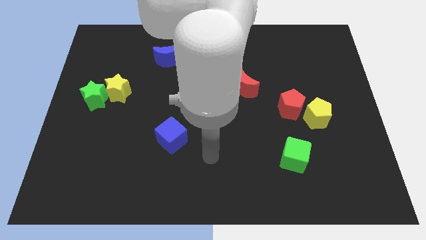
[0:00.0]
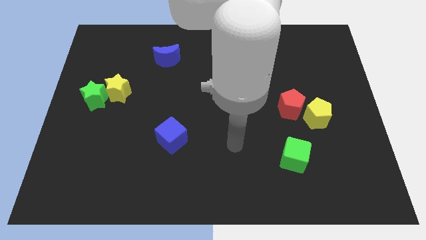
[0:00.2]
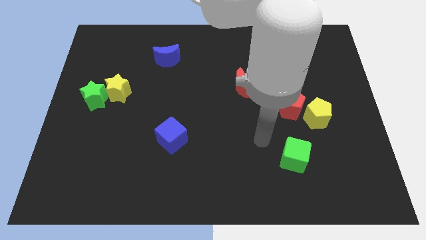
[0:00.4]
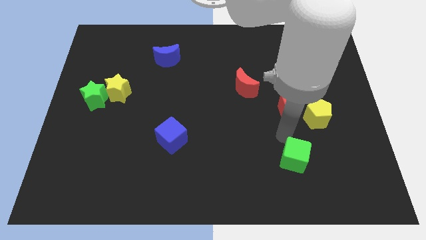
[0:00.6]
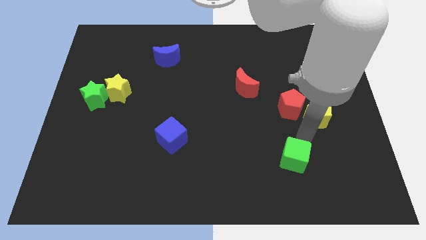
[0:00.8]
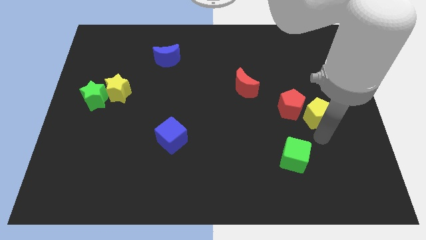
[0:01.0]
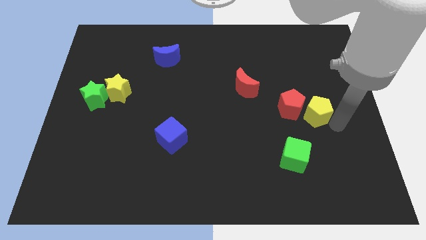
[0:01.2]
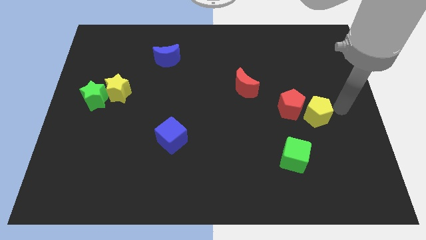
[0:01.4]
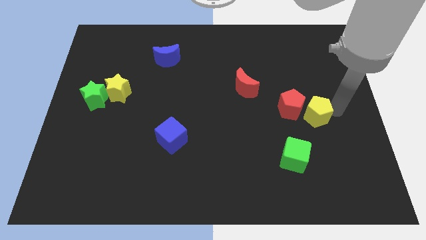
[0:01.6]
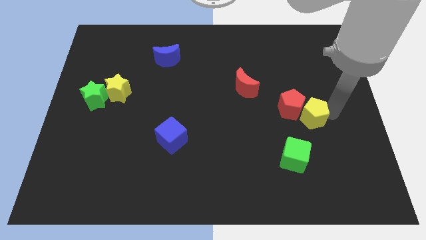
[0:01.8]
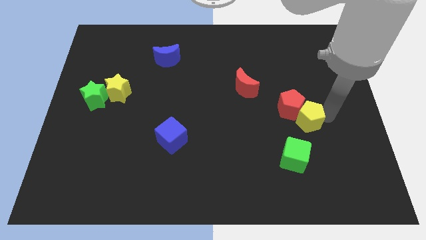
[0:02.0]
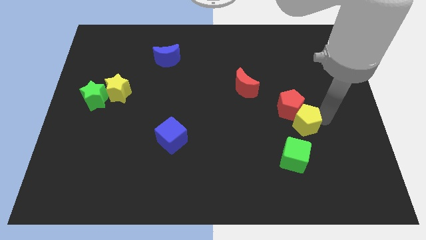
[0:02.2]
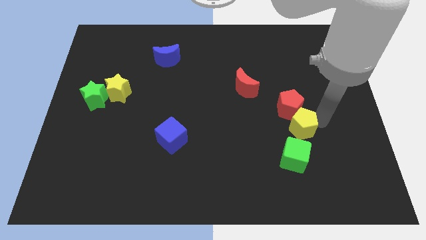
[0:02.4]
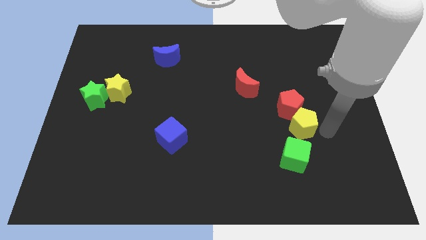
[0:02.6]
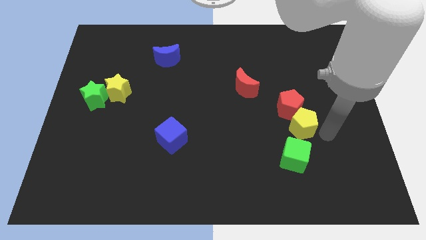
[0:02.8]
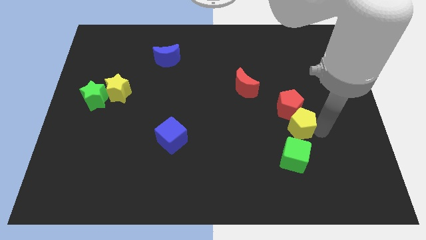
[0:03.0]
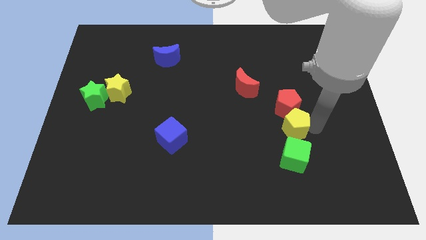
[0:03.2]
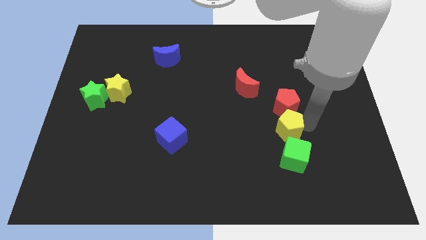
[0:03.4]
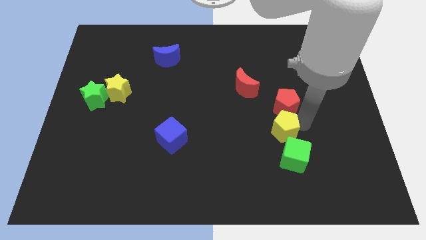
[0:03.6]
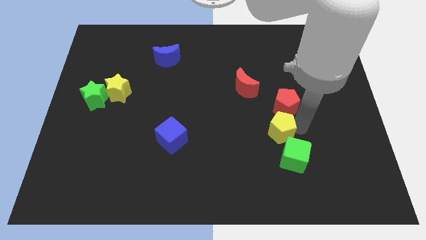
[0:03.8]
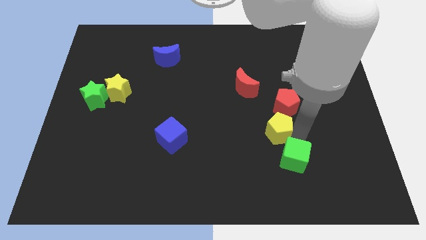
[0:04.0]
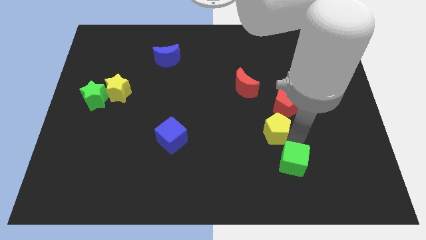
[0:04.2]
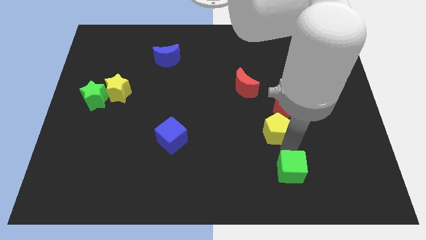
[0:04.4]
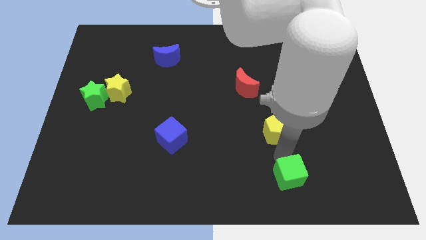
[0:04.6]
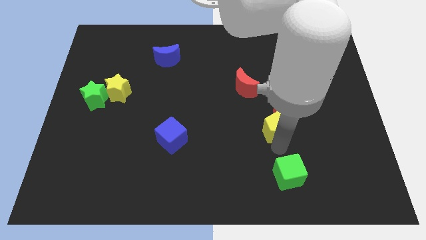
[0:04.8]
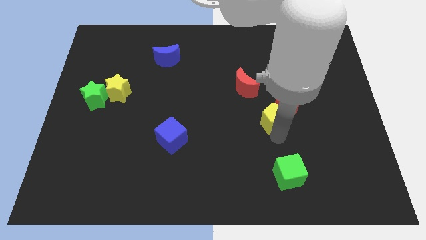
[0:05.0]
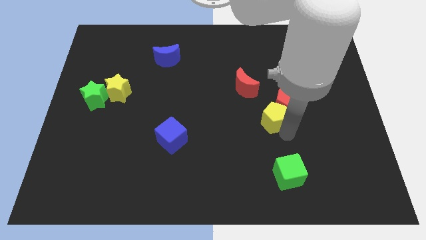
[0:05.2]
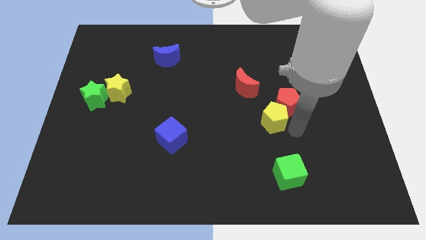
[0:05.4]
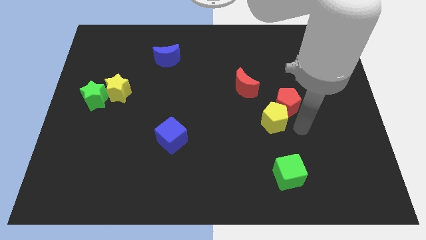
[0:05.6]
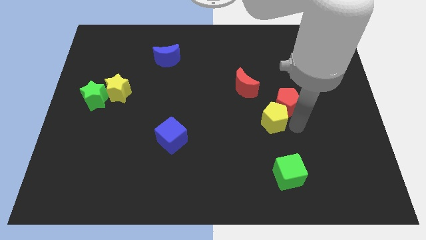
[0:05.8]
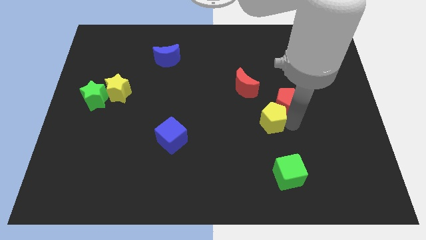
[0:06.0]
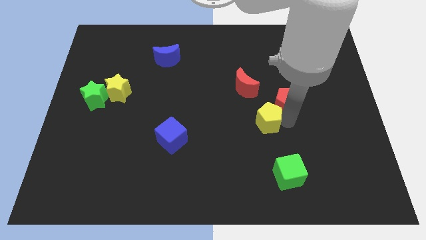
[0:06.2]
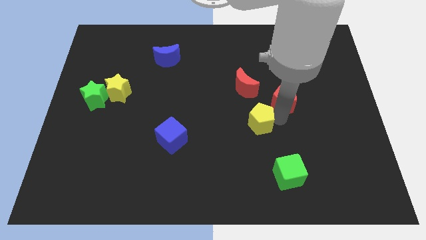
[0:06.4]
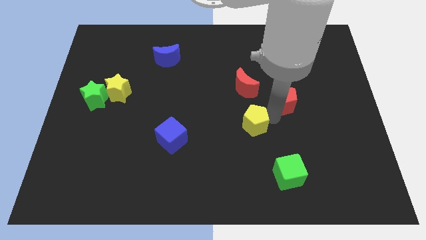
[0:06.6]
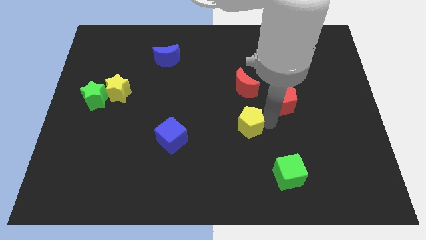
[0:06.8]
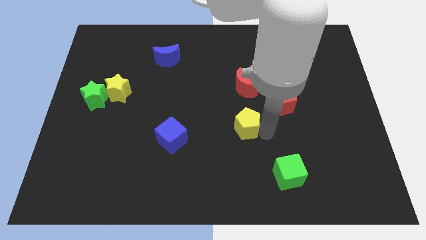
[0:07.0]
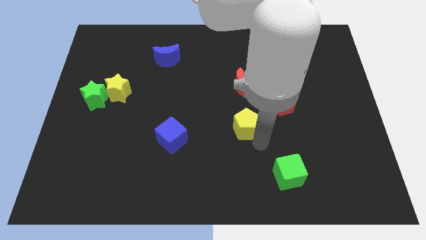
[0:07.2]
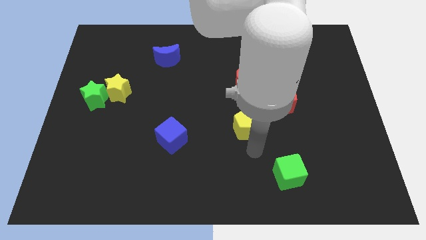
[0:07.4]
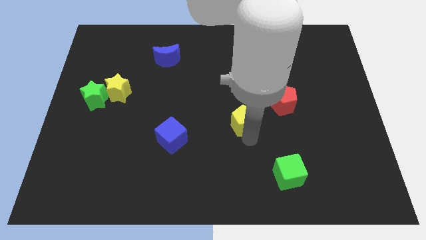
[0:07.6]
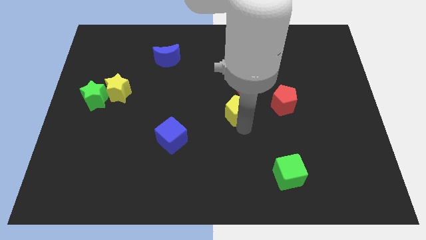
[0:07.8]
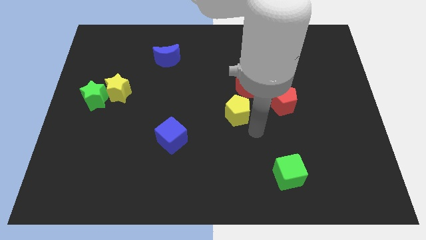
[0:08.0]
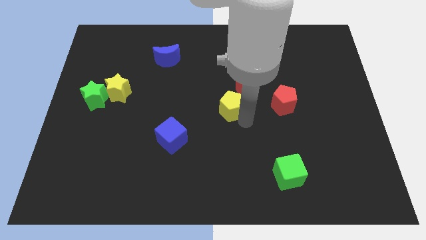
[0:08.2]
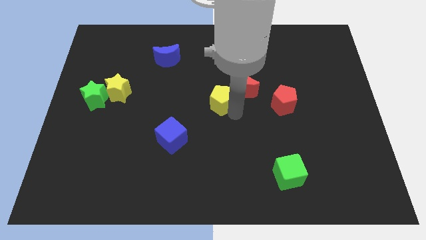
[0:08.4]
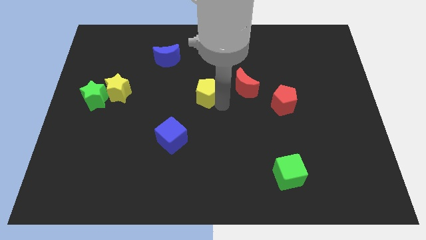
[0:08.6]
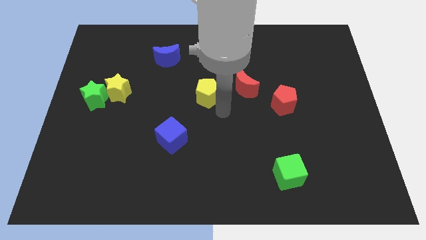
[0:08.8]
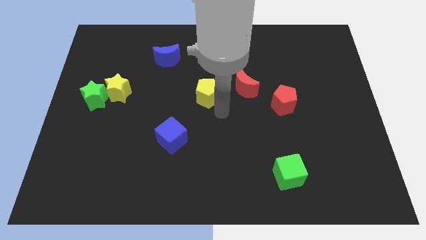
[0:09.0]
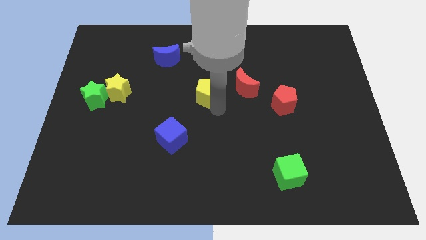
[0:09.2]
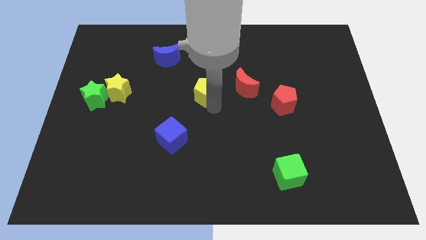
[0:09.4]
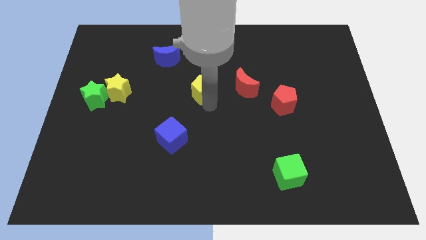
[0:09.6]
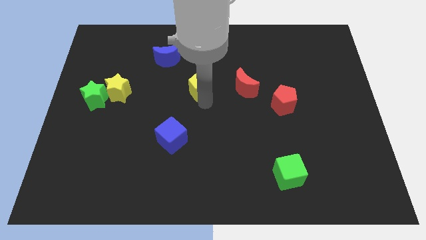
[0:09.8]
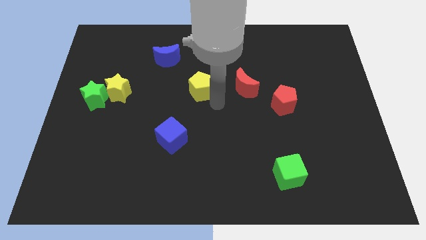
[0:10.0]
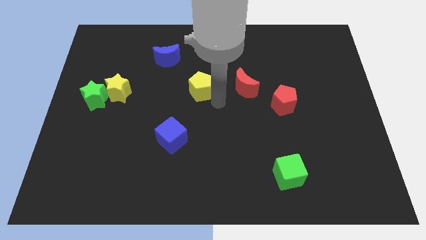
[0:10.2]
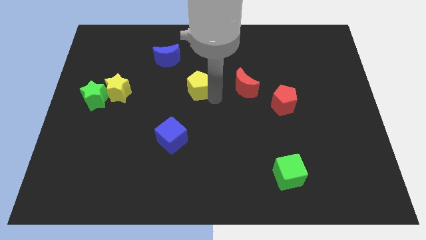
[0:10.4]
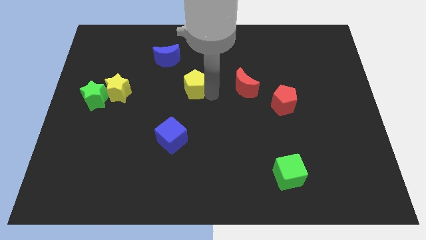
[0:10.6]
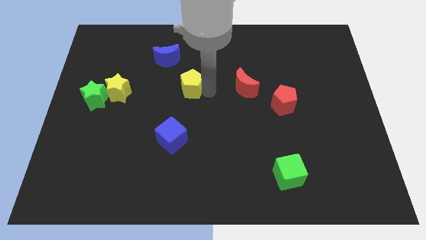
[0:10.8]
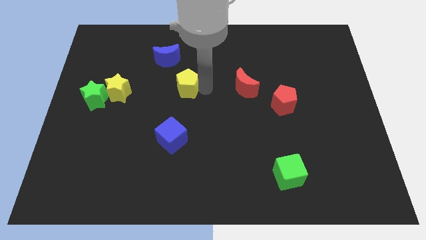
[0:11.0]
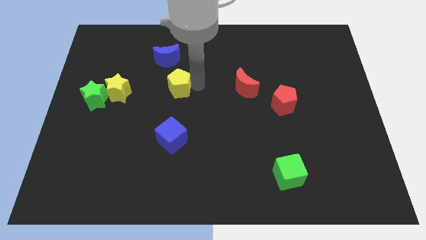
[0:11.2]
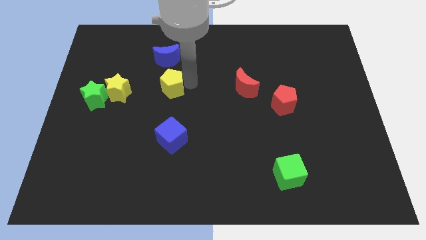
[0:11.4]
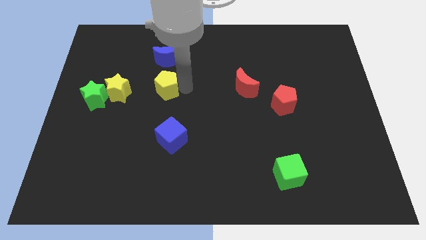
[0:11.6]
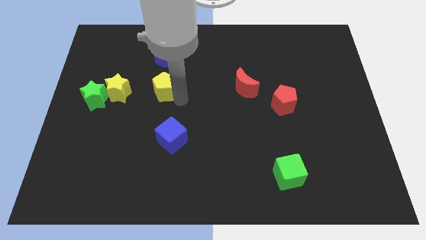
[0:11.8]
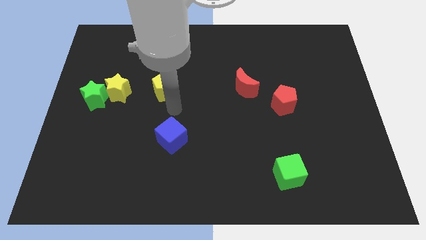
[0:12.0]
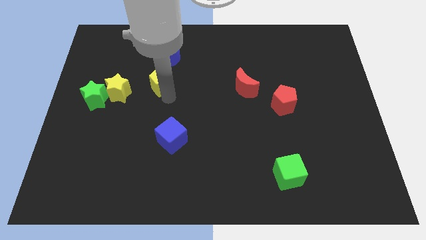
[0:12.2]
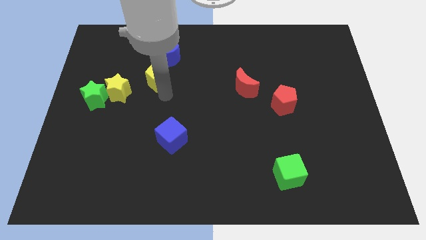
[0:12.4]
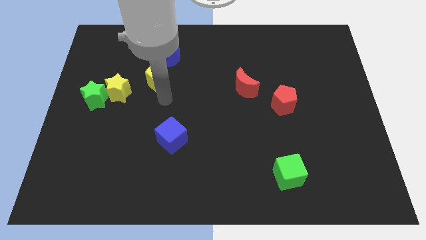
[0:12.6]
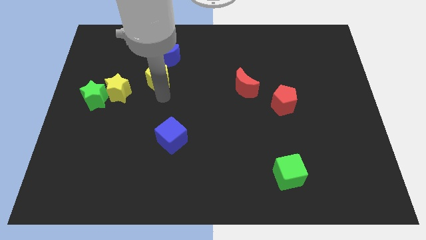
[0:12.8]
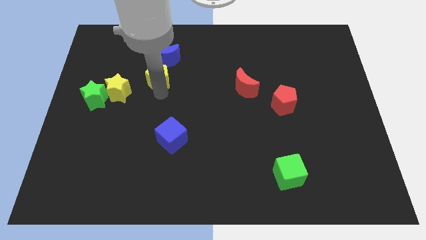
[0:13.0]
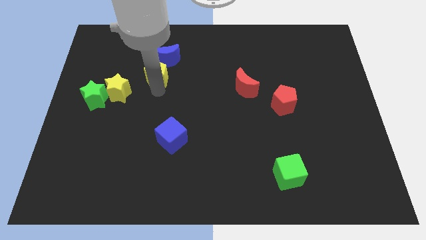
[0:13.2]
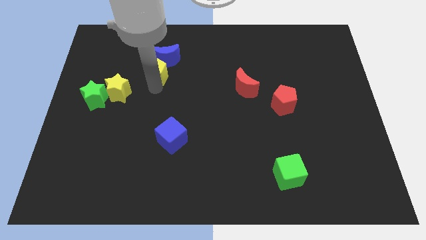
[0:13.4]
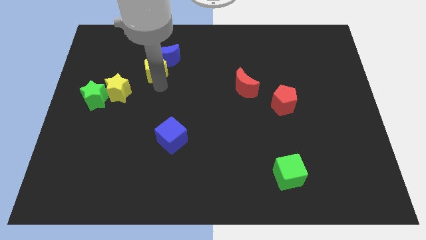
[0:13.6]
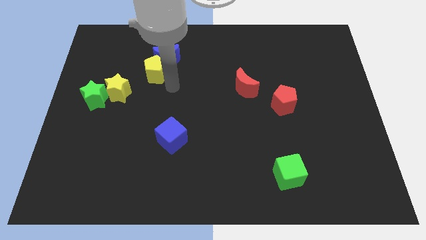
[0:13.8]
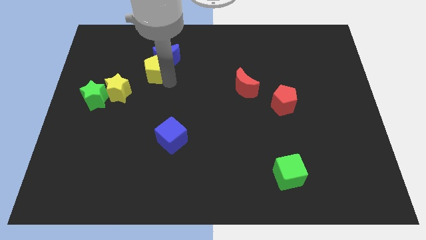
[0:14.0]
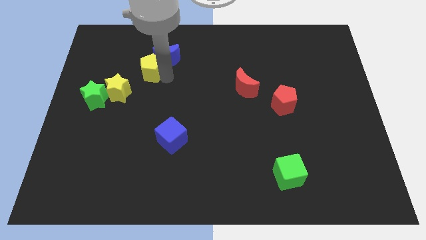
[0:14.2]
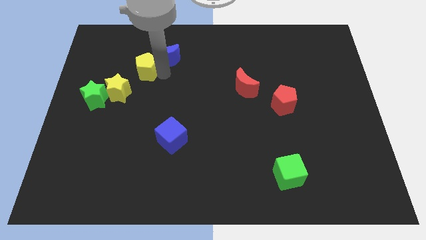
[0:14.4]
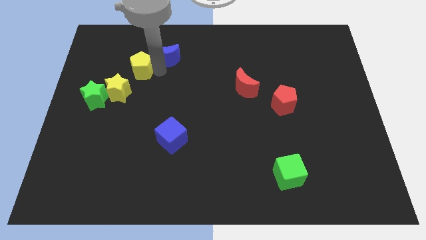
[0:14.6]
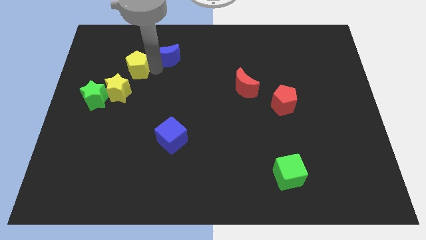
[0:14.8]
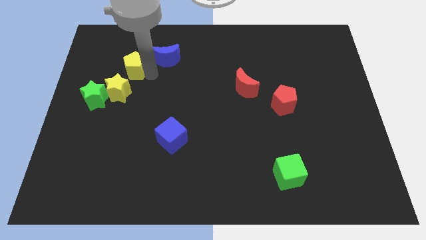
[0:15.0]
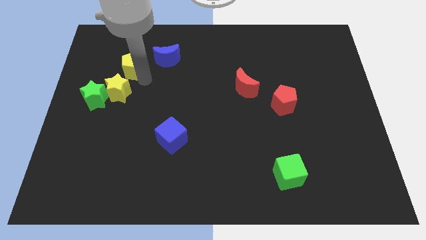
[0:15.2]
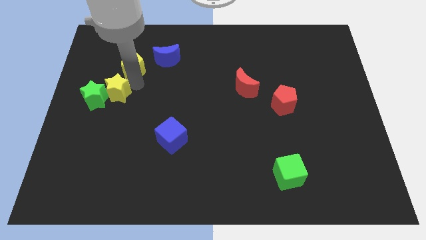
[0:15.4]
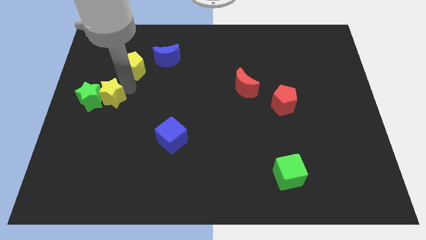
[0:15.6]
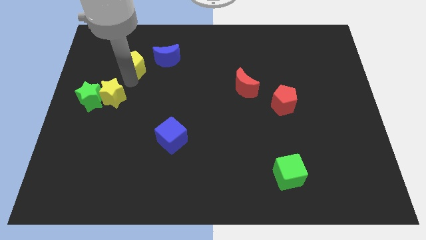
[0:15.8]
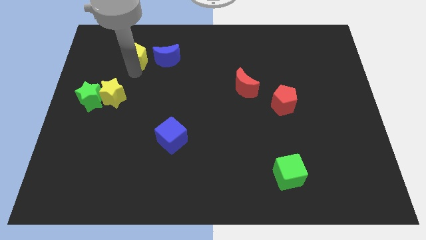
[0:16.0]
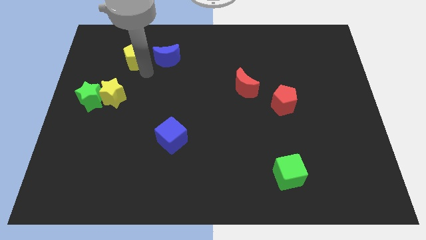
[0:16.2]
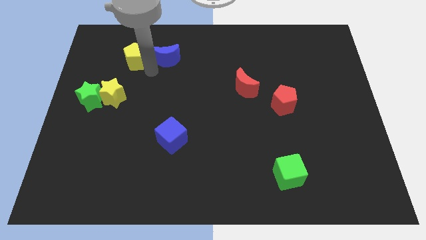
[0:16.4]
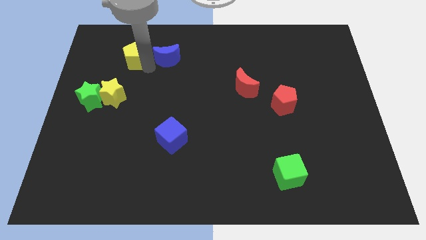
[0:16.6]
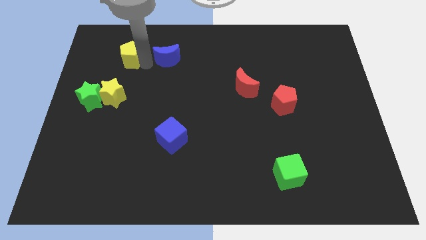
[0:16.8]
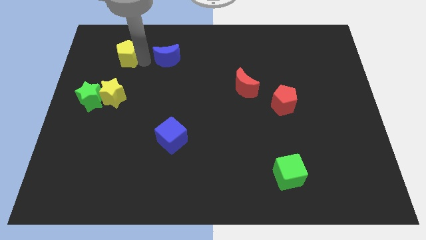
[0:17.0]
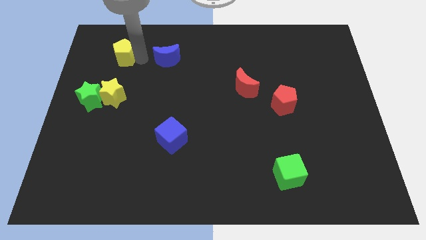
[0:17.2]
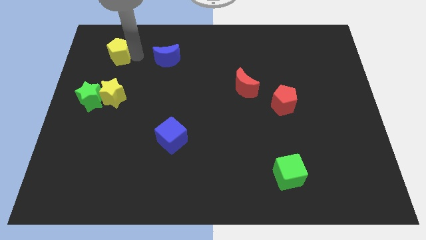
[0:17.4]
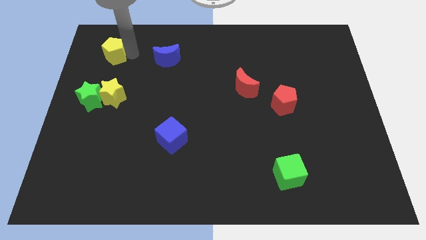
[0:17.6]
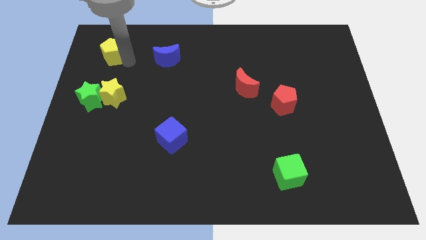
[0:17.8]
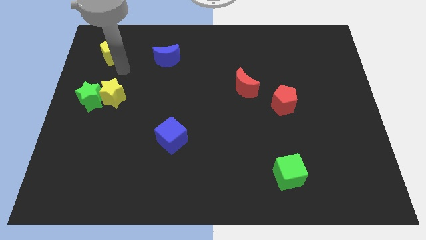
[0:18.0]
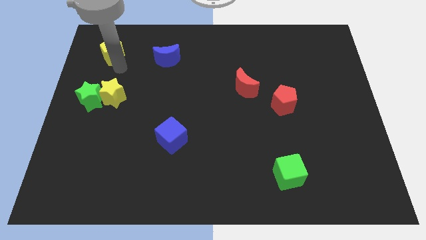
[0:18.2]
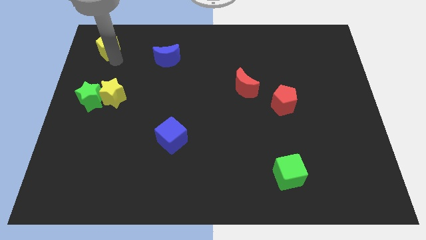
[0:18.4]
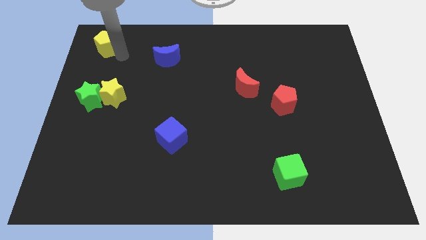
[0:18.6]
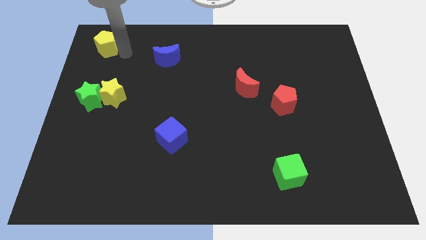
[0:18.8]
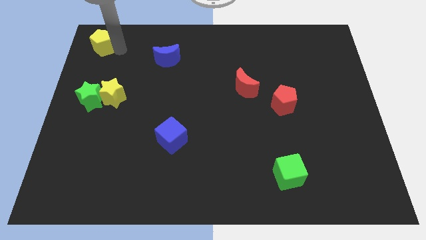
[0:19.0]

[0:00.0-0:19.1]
move the yellow pentagon to the upper left corner
